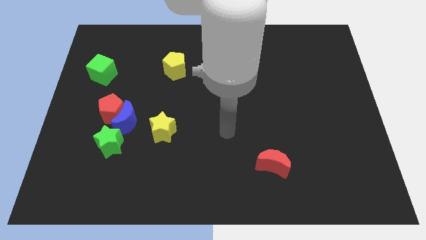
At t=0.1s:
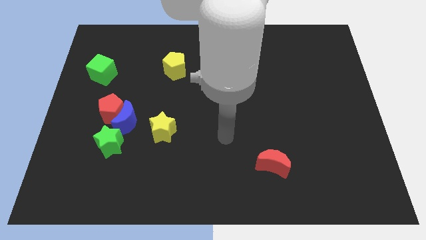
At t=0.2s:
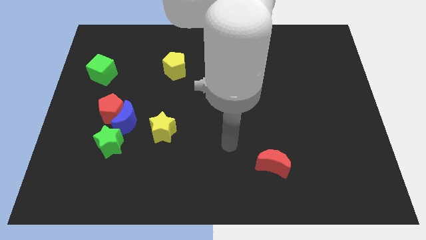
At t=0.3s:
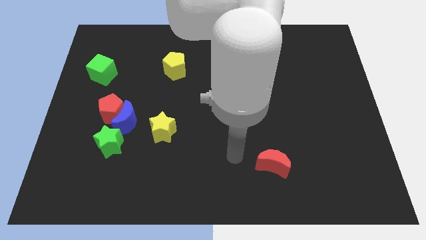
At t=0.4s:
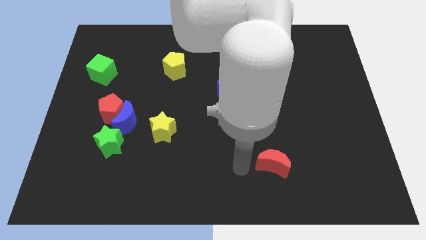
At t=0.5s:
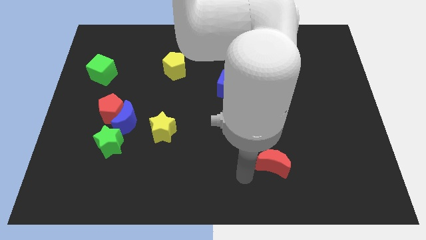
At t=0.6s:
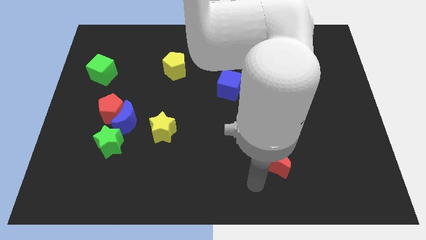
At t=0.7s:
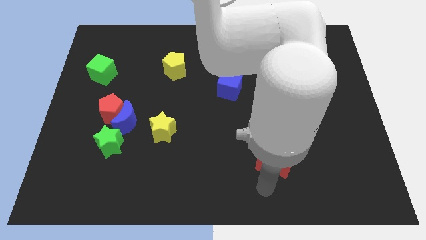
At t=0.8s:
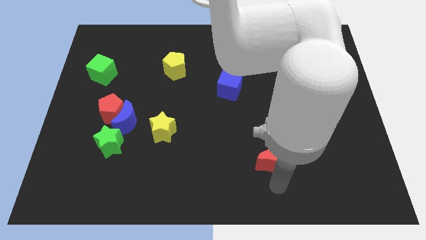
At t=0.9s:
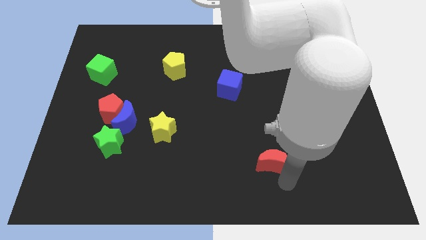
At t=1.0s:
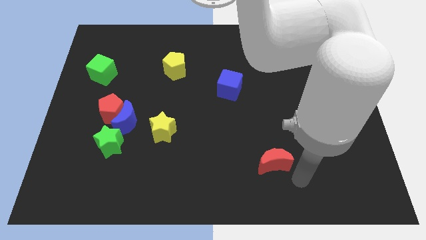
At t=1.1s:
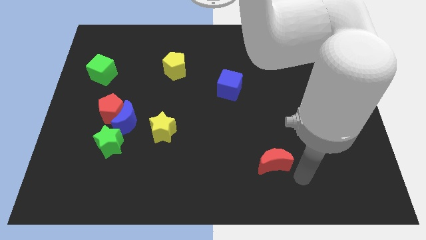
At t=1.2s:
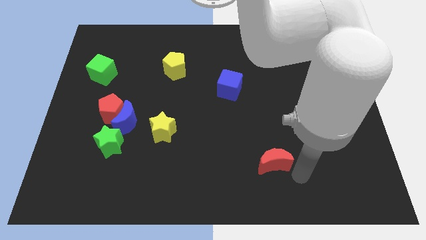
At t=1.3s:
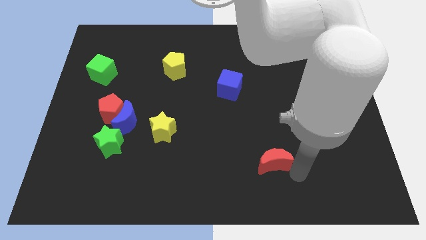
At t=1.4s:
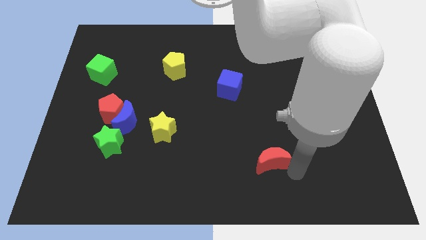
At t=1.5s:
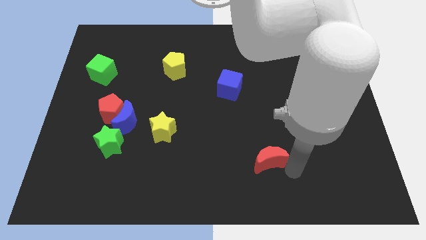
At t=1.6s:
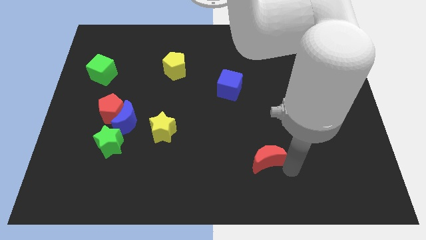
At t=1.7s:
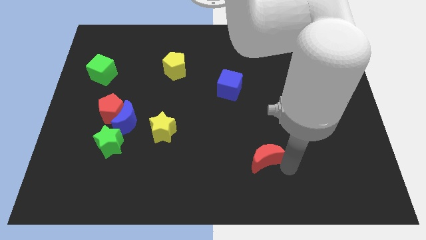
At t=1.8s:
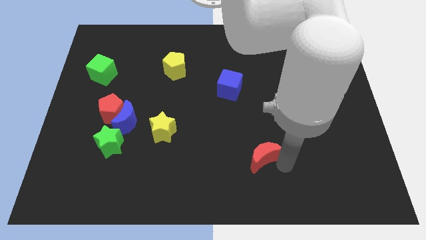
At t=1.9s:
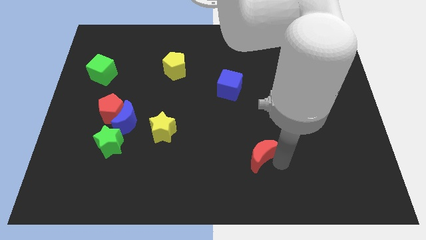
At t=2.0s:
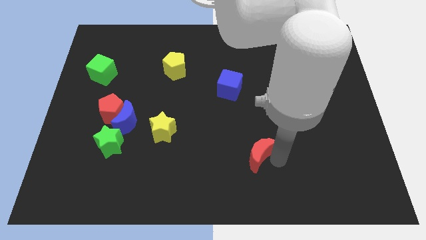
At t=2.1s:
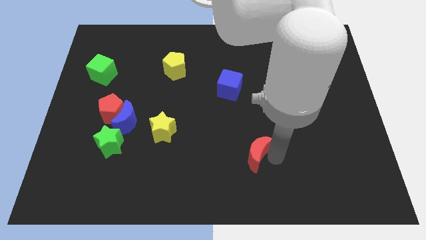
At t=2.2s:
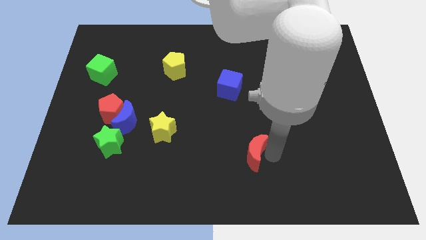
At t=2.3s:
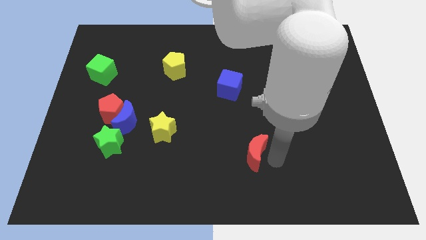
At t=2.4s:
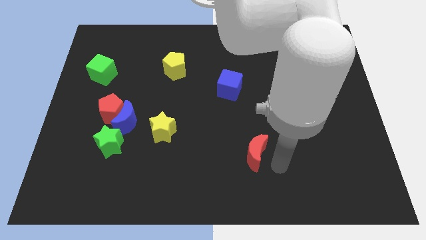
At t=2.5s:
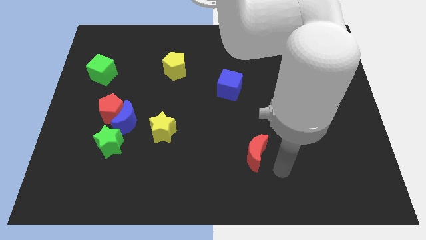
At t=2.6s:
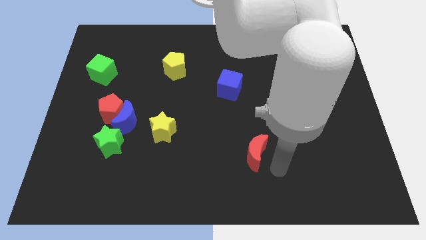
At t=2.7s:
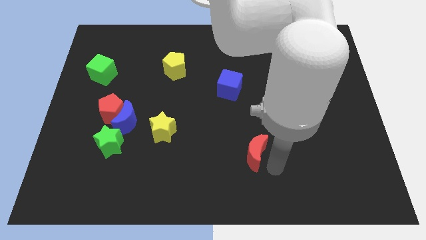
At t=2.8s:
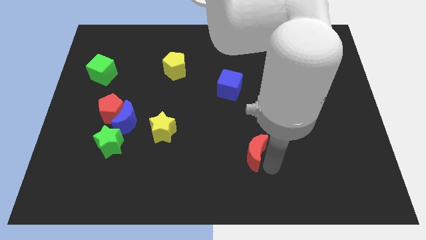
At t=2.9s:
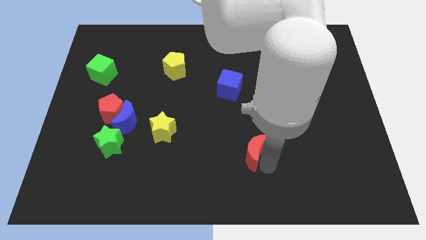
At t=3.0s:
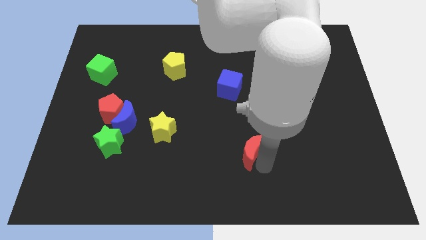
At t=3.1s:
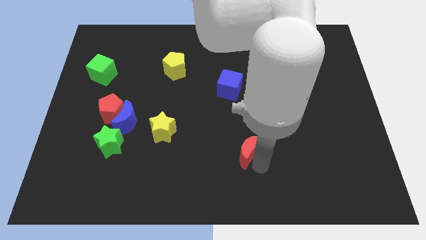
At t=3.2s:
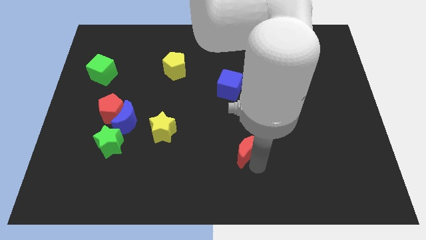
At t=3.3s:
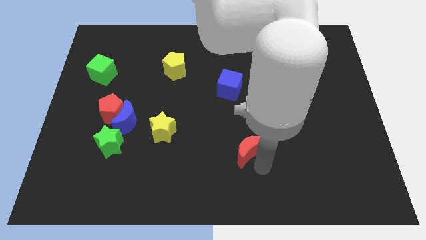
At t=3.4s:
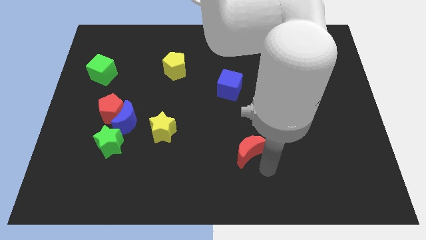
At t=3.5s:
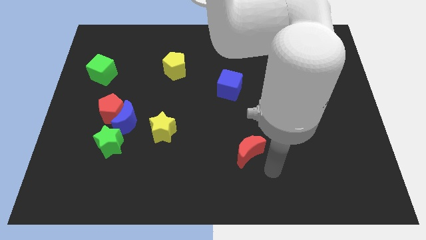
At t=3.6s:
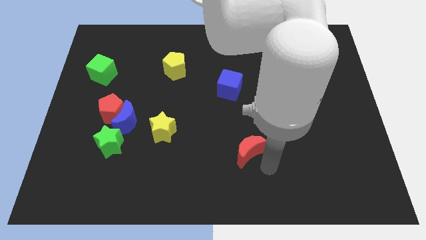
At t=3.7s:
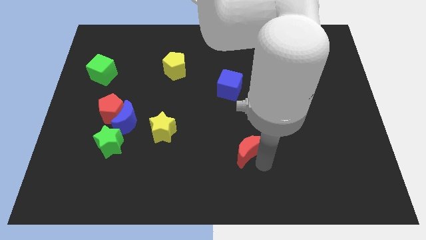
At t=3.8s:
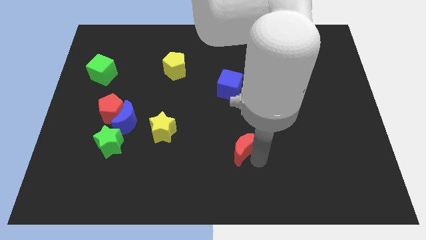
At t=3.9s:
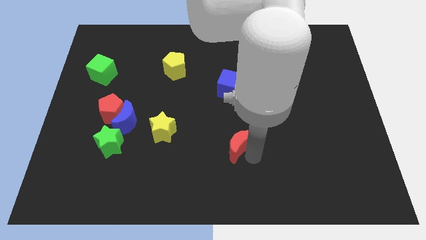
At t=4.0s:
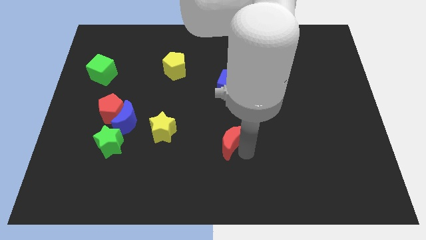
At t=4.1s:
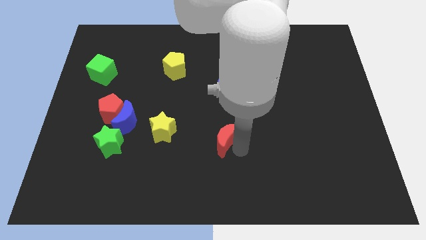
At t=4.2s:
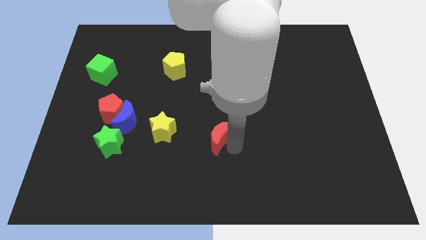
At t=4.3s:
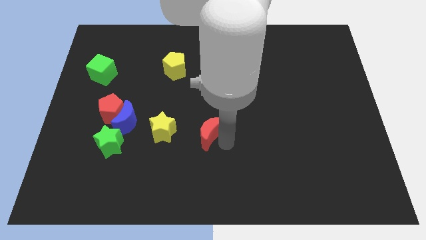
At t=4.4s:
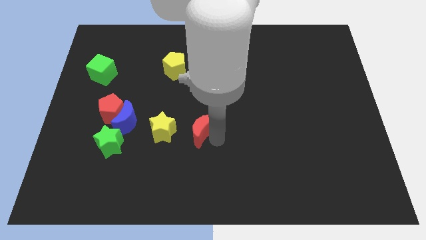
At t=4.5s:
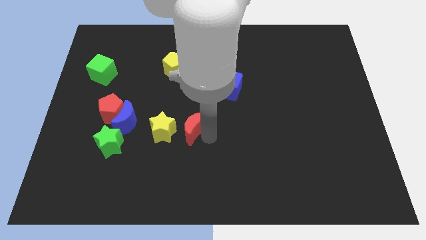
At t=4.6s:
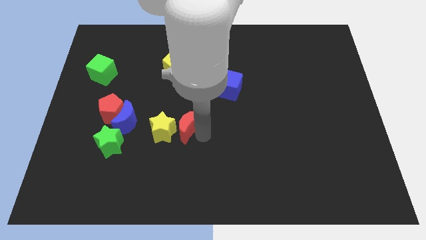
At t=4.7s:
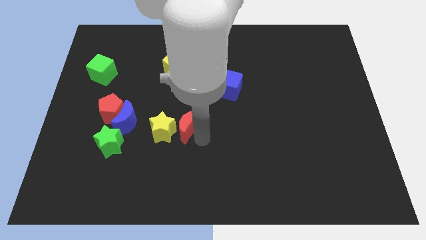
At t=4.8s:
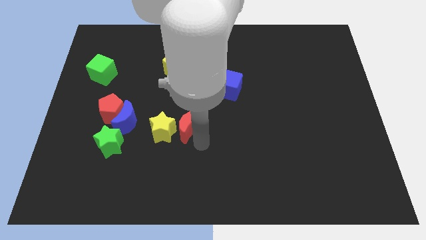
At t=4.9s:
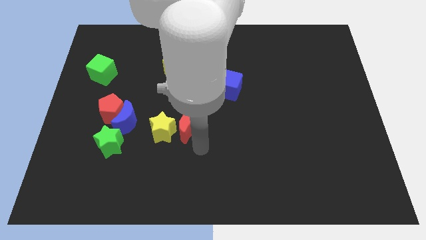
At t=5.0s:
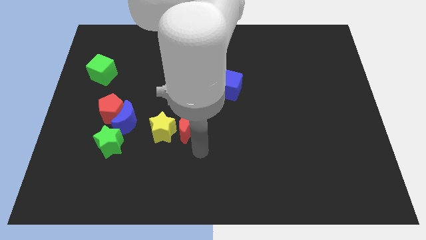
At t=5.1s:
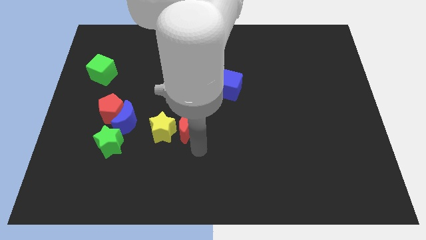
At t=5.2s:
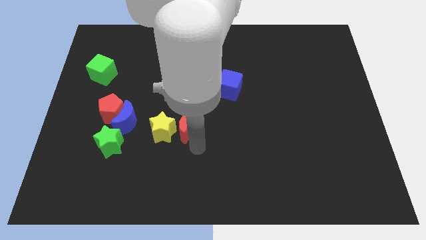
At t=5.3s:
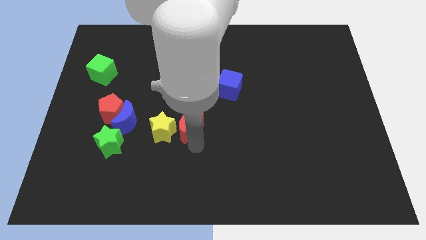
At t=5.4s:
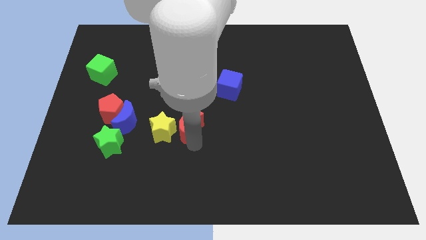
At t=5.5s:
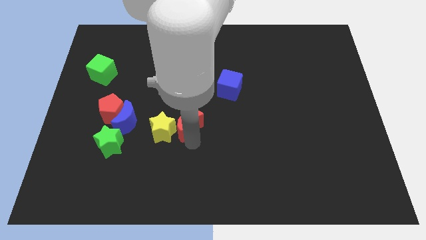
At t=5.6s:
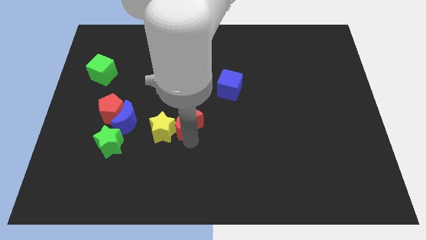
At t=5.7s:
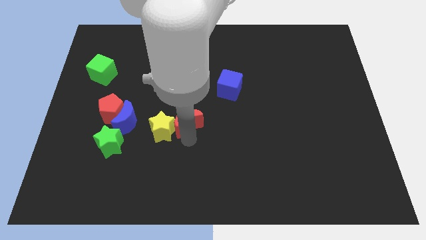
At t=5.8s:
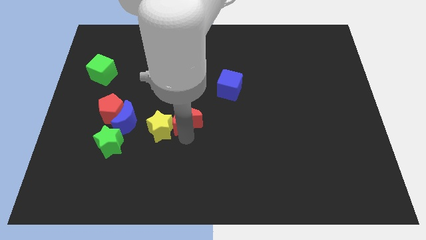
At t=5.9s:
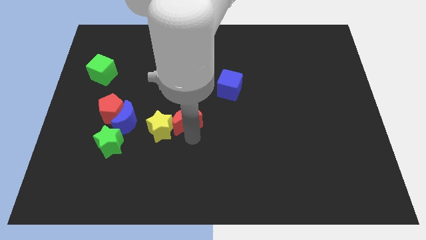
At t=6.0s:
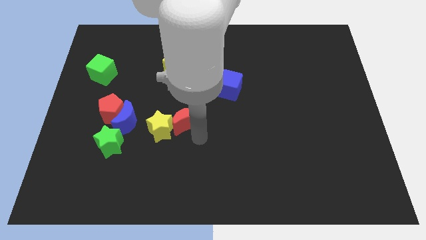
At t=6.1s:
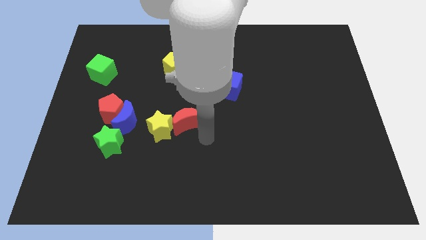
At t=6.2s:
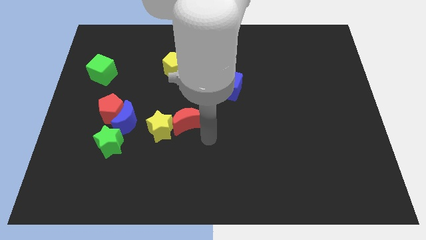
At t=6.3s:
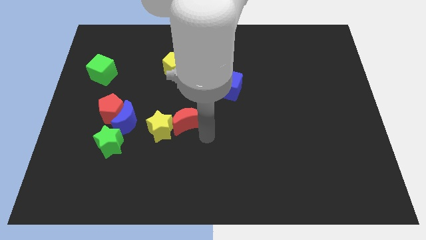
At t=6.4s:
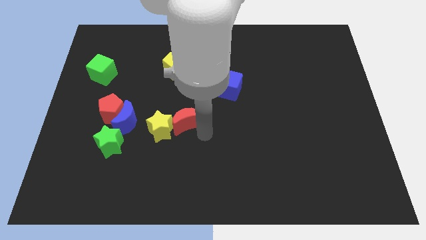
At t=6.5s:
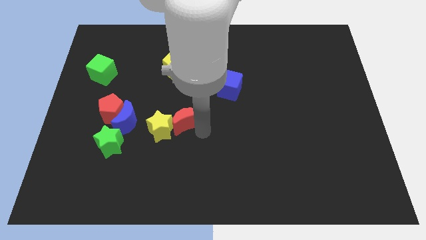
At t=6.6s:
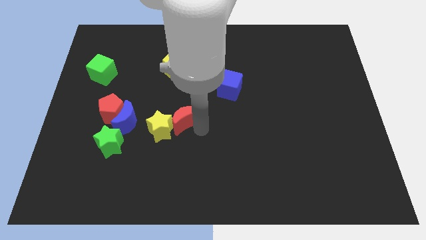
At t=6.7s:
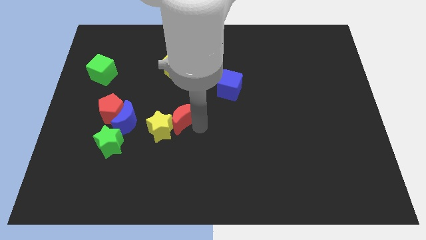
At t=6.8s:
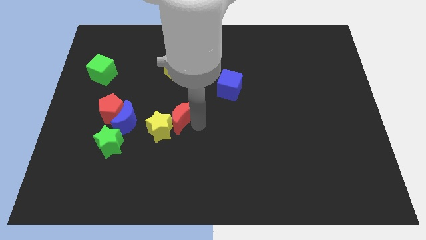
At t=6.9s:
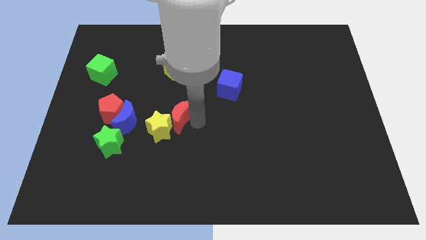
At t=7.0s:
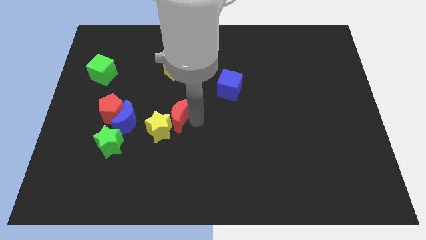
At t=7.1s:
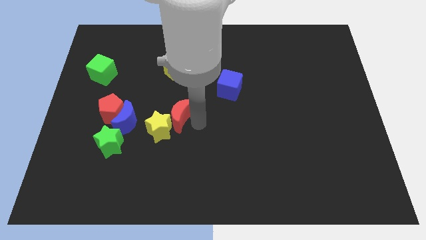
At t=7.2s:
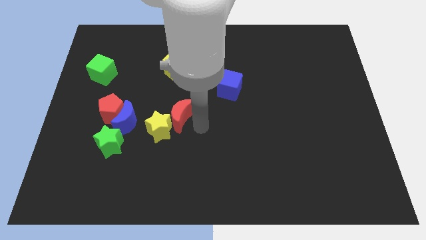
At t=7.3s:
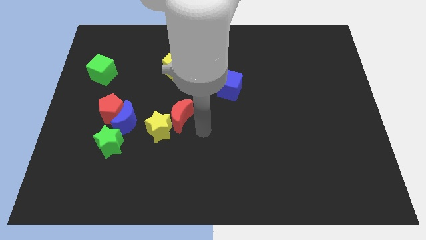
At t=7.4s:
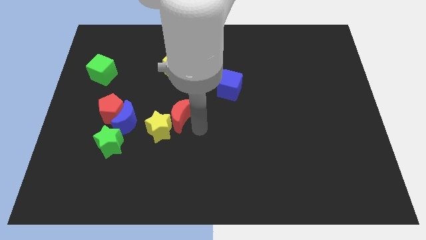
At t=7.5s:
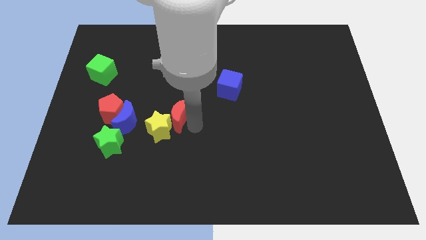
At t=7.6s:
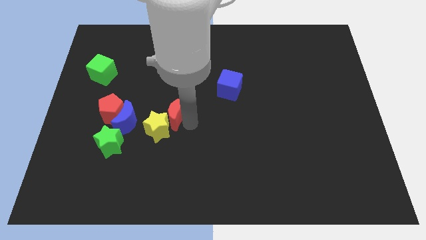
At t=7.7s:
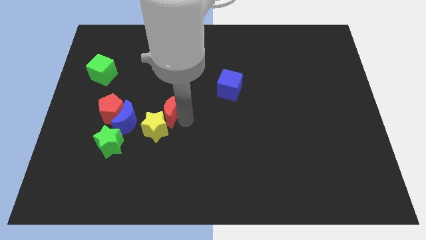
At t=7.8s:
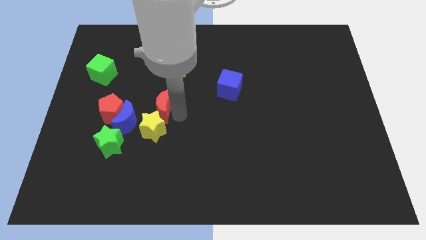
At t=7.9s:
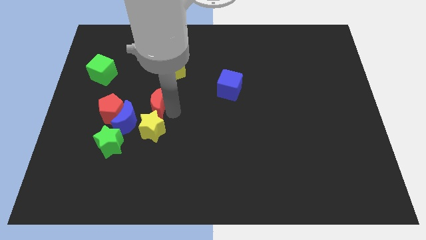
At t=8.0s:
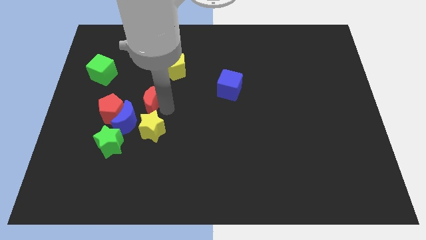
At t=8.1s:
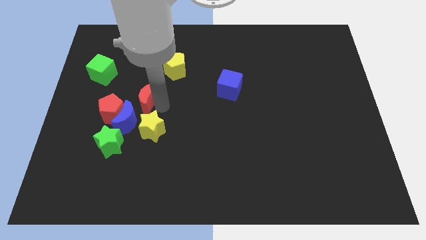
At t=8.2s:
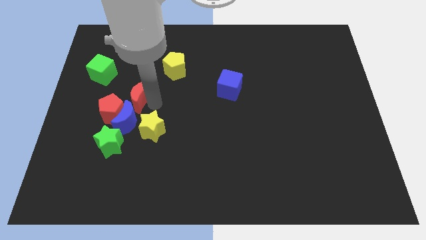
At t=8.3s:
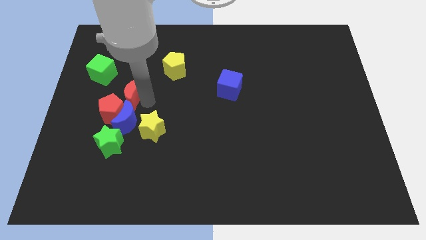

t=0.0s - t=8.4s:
move the red moon to the bottom right side of the green cube
